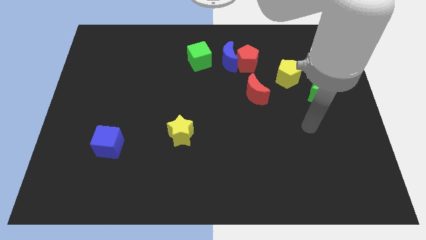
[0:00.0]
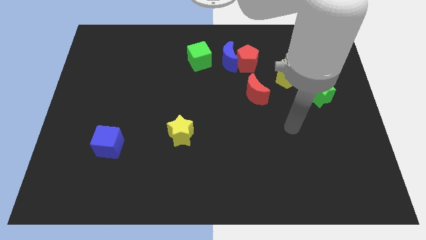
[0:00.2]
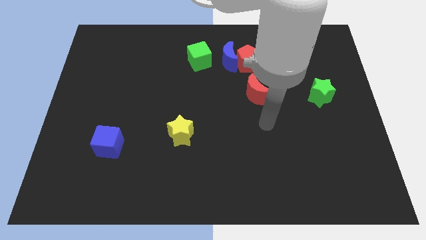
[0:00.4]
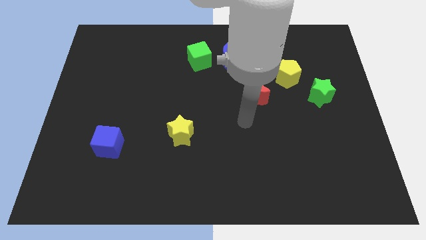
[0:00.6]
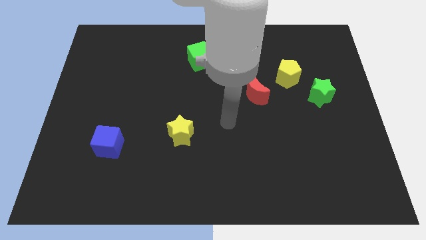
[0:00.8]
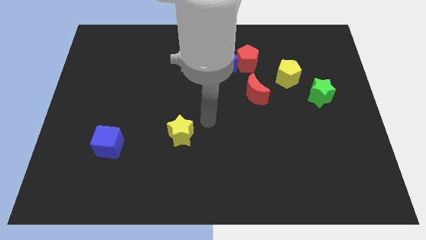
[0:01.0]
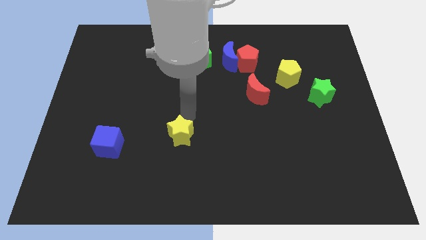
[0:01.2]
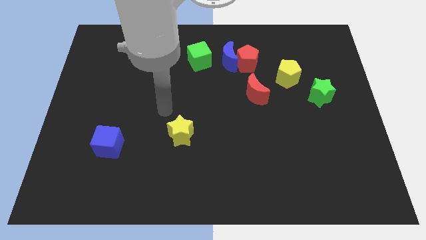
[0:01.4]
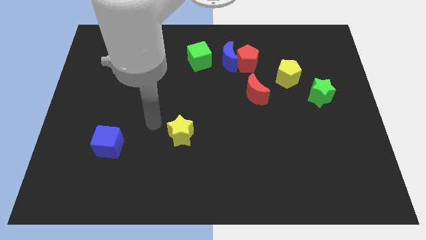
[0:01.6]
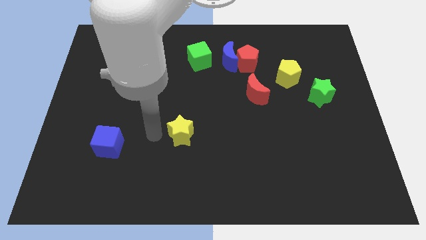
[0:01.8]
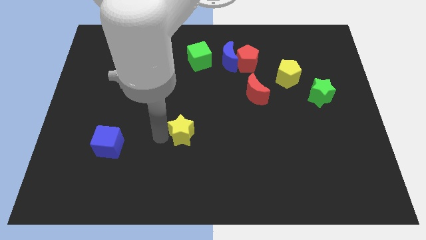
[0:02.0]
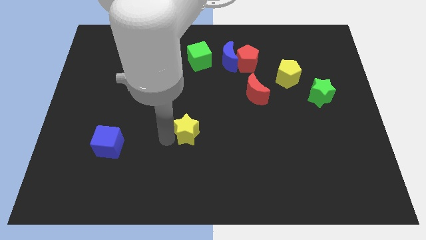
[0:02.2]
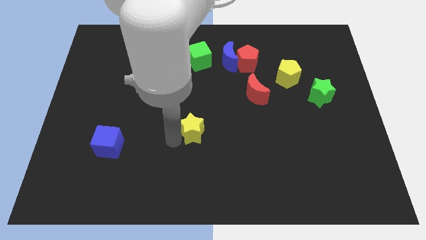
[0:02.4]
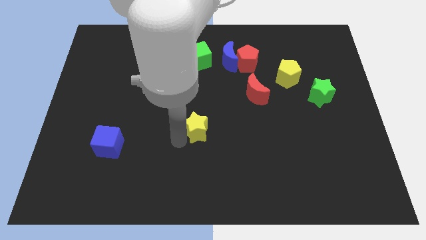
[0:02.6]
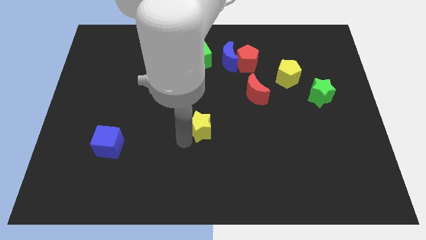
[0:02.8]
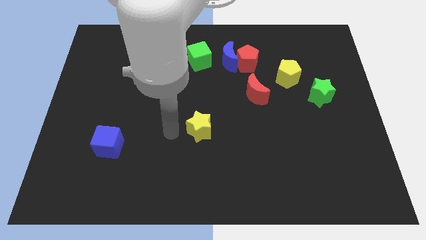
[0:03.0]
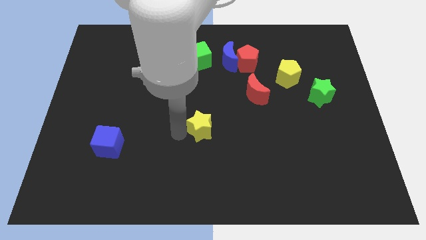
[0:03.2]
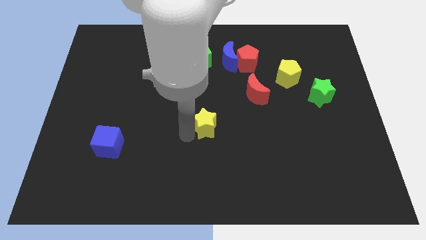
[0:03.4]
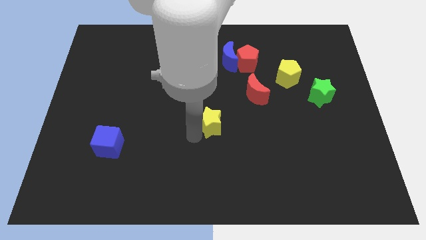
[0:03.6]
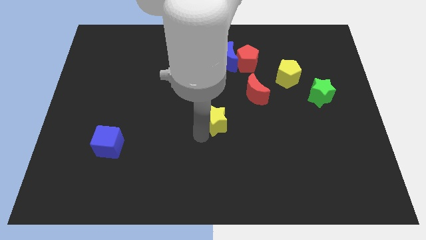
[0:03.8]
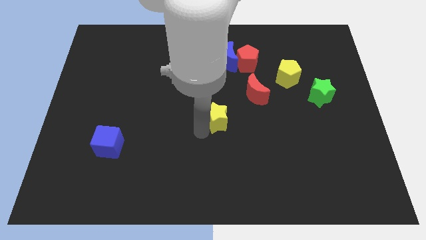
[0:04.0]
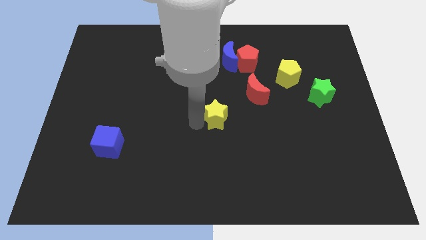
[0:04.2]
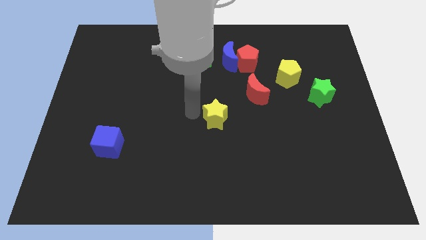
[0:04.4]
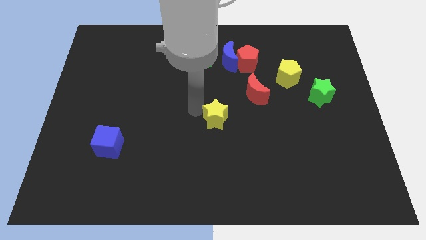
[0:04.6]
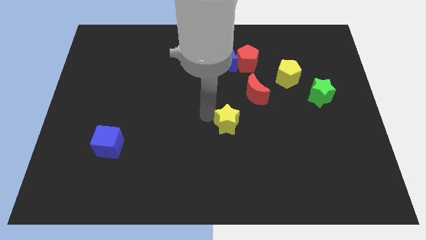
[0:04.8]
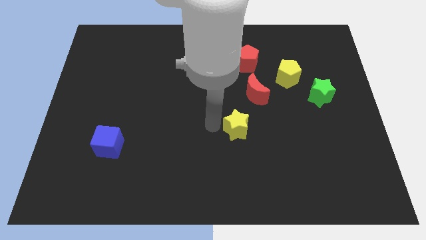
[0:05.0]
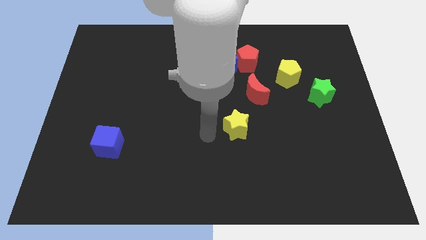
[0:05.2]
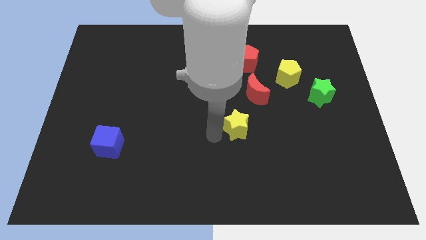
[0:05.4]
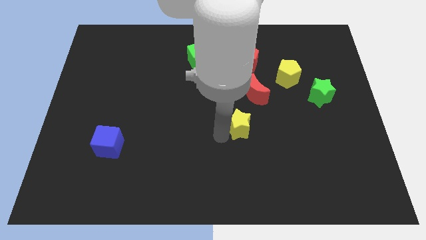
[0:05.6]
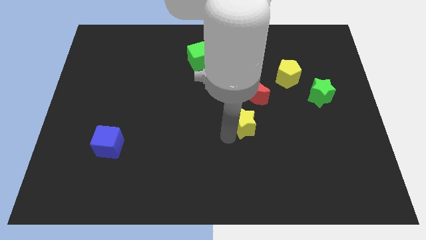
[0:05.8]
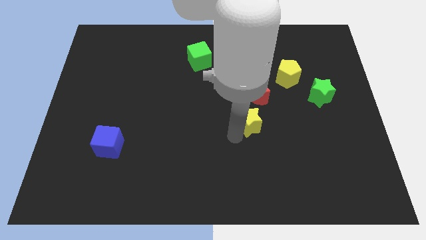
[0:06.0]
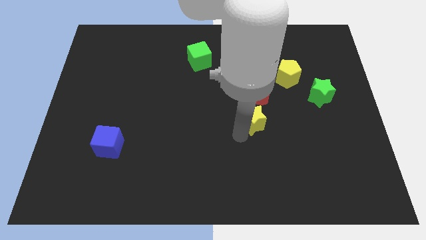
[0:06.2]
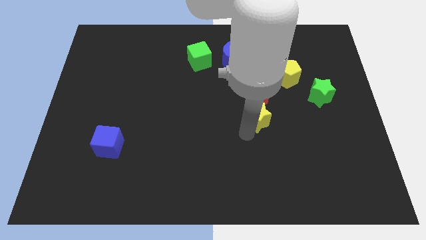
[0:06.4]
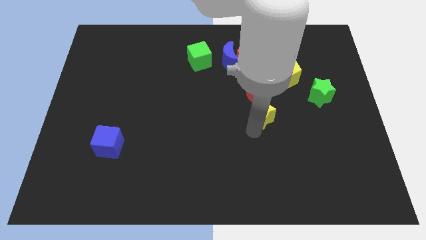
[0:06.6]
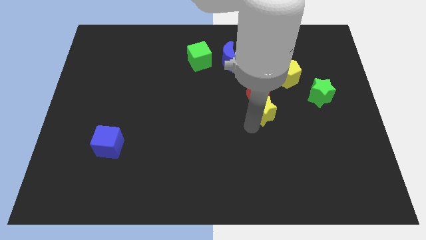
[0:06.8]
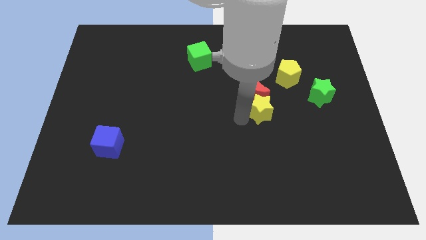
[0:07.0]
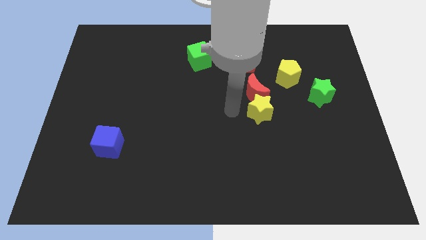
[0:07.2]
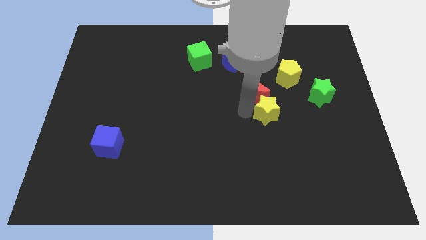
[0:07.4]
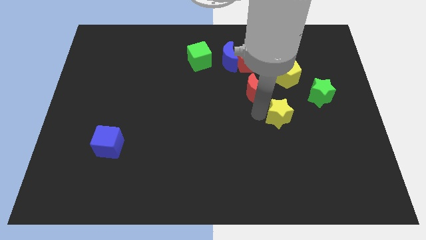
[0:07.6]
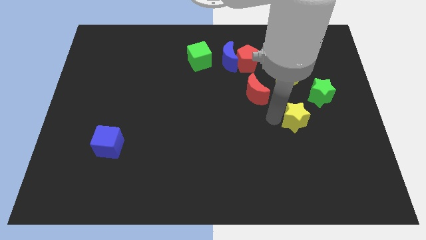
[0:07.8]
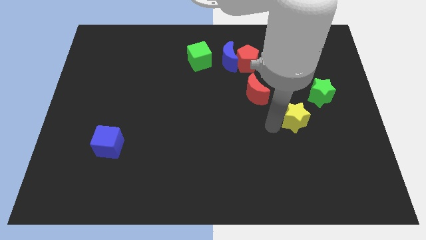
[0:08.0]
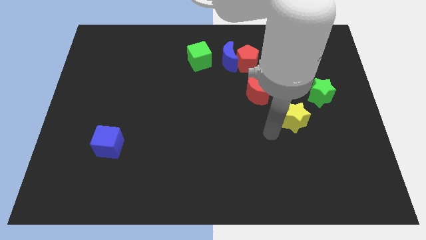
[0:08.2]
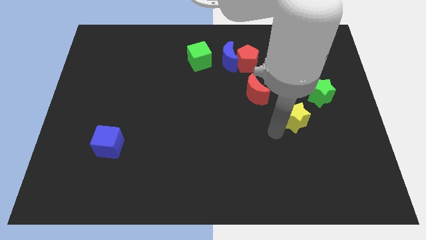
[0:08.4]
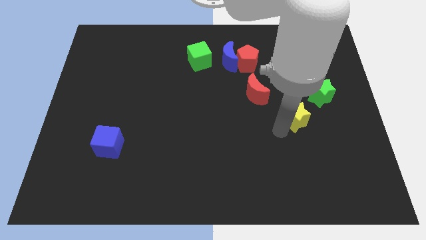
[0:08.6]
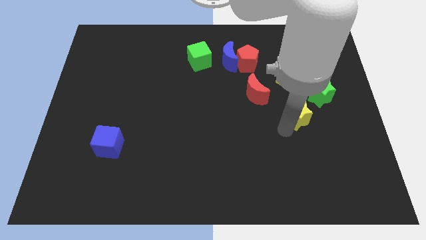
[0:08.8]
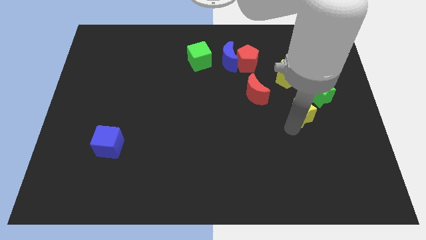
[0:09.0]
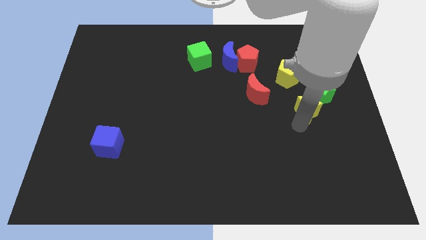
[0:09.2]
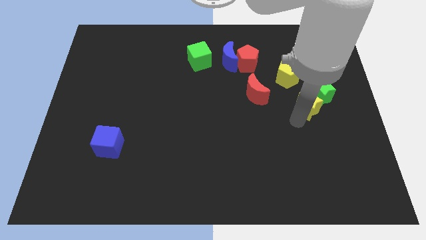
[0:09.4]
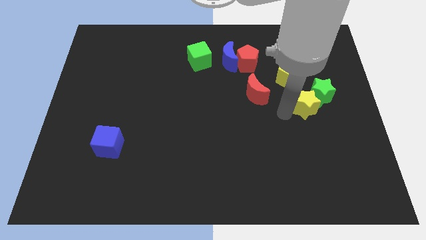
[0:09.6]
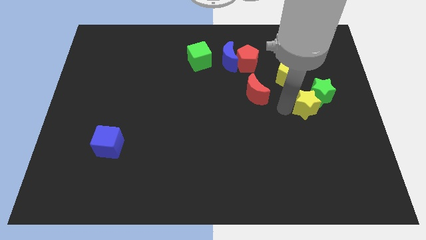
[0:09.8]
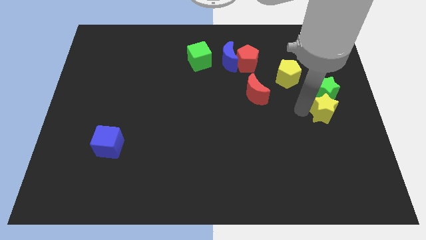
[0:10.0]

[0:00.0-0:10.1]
push the yellow star to the right side

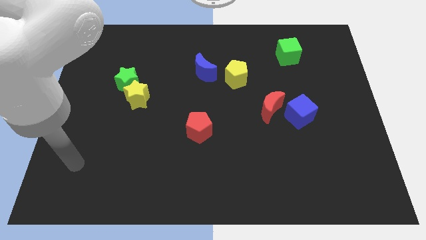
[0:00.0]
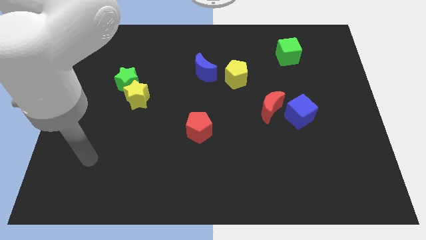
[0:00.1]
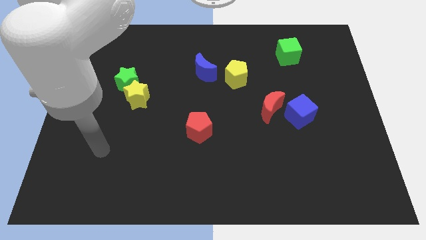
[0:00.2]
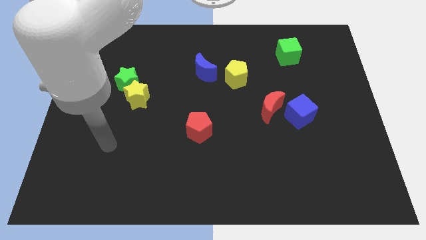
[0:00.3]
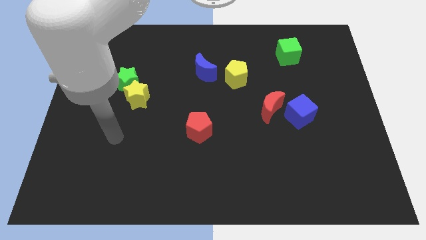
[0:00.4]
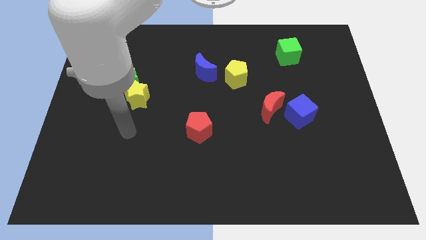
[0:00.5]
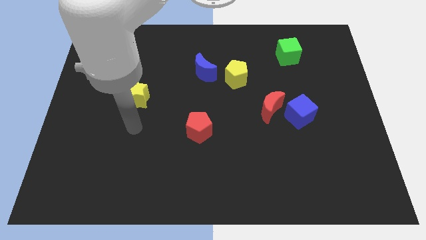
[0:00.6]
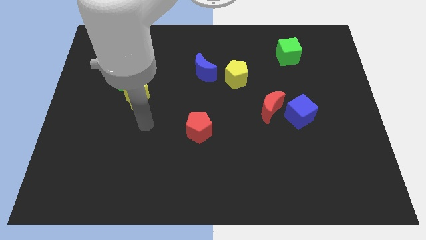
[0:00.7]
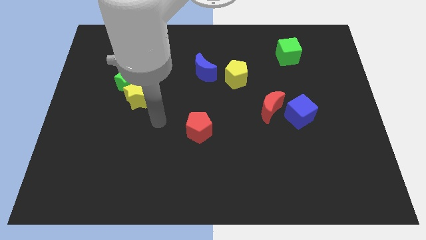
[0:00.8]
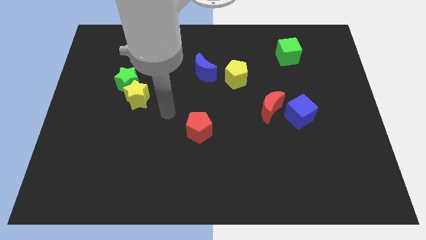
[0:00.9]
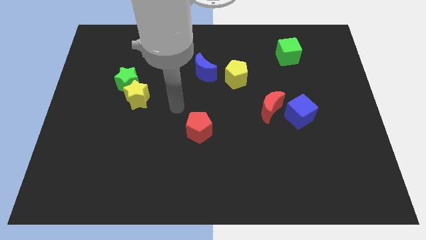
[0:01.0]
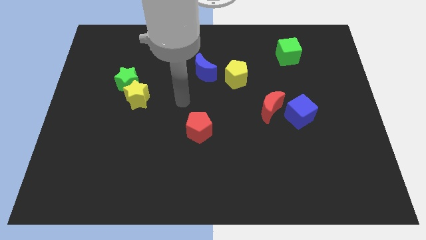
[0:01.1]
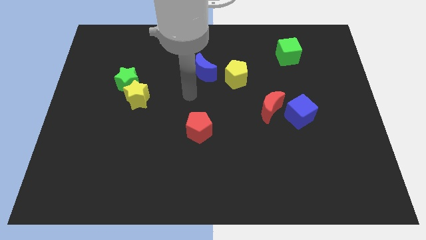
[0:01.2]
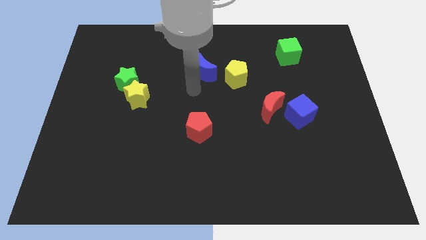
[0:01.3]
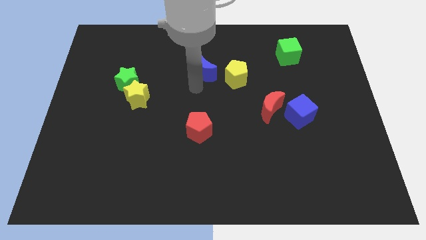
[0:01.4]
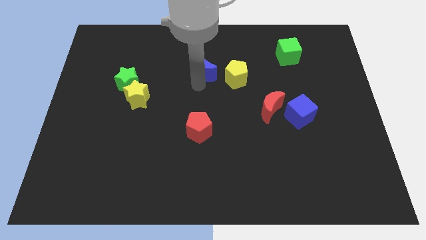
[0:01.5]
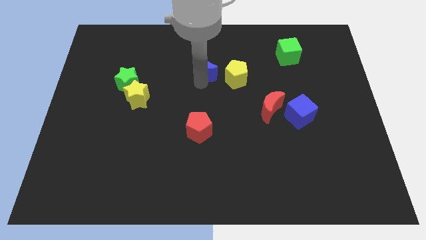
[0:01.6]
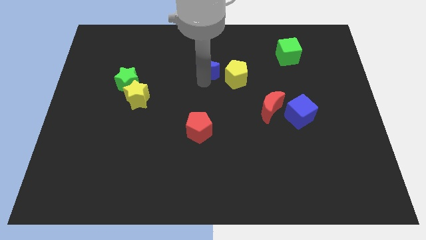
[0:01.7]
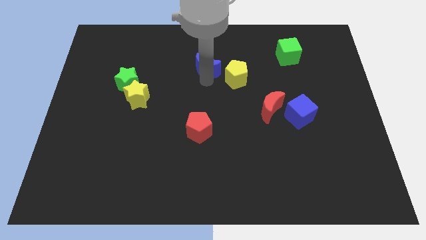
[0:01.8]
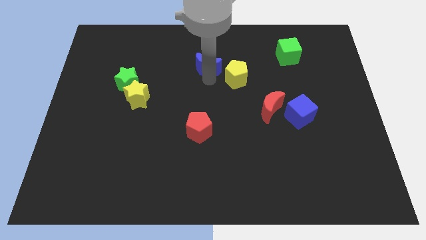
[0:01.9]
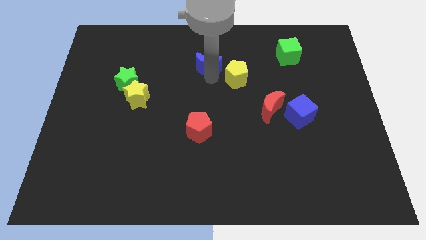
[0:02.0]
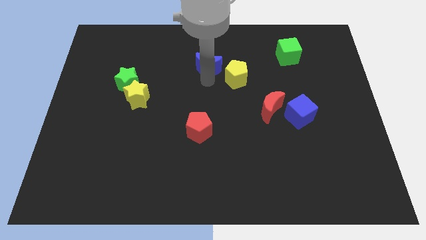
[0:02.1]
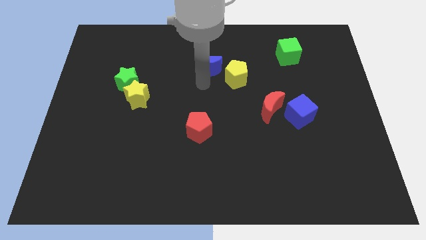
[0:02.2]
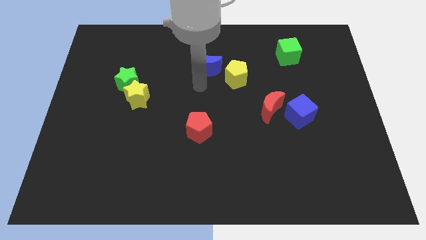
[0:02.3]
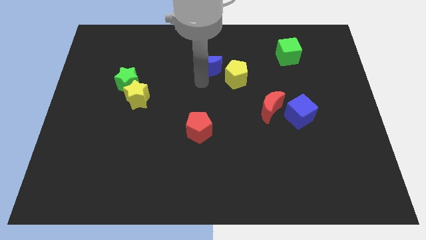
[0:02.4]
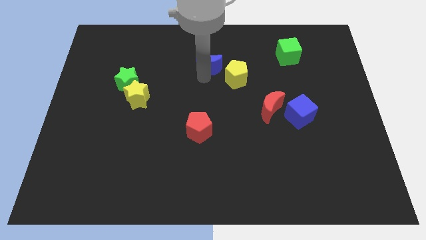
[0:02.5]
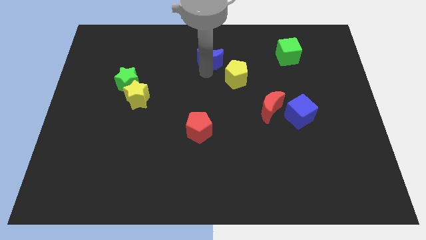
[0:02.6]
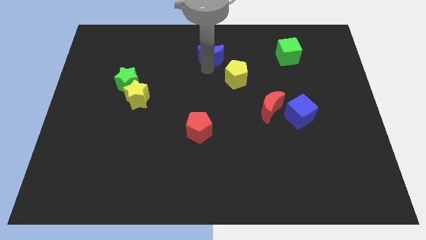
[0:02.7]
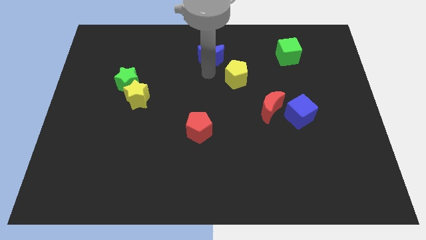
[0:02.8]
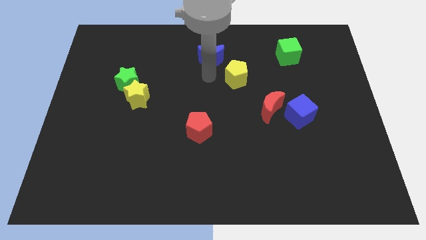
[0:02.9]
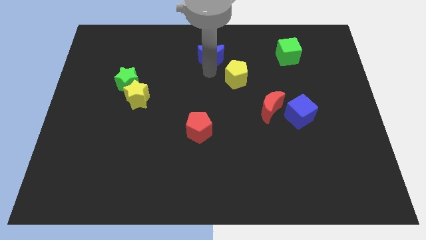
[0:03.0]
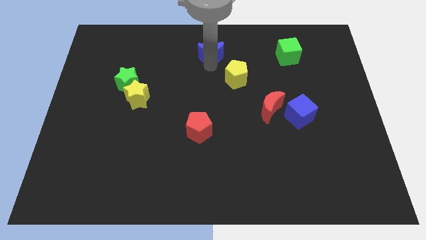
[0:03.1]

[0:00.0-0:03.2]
push the blue moon to the top side
